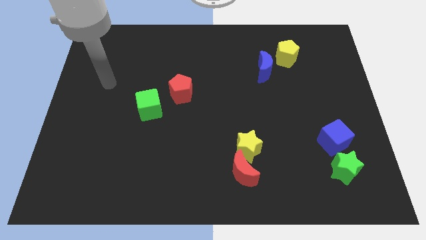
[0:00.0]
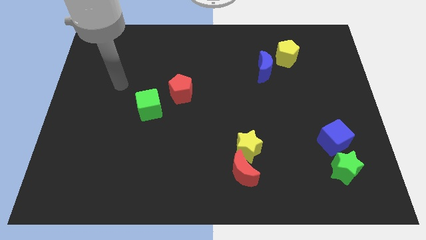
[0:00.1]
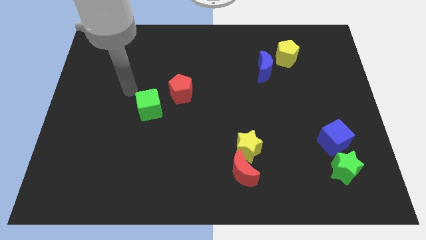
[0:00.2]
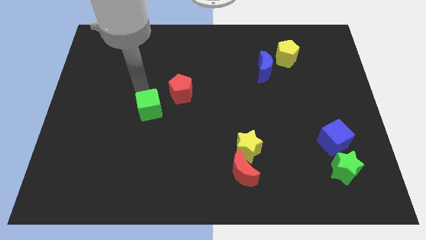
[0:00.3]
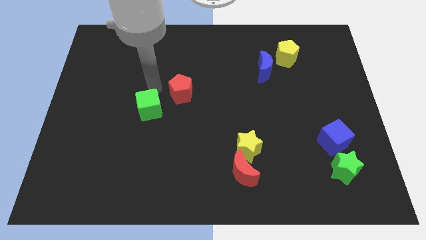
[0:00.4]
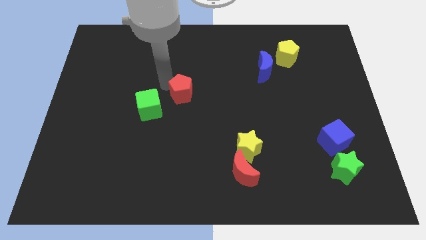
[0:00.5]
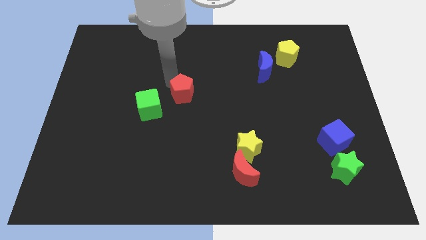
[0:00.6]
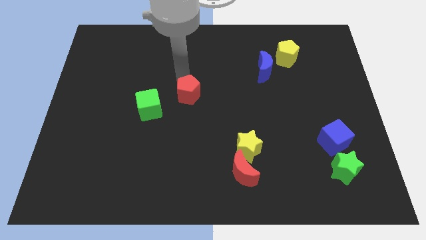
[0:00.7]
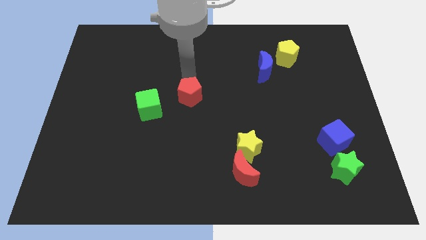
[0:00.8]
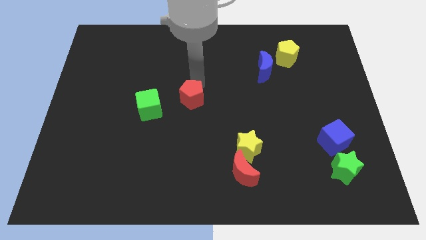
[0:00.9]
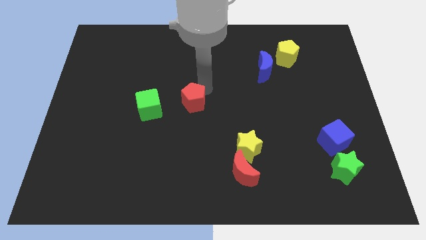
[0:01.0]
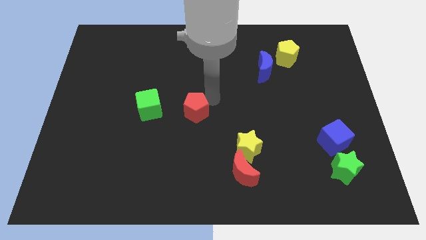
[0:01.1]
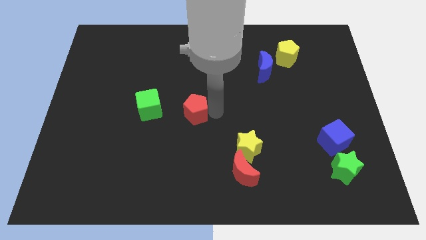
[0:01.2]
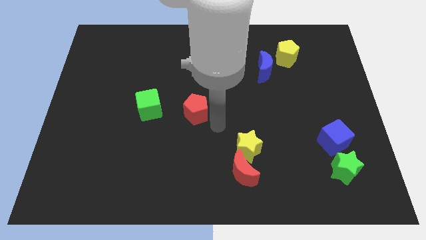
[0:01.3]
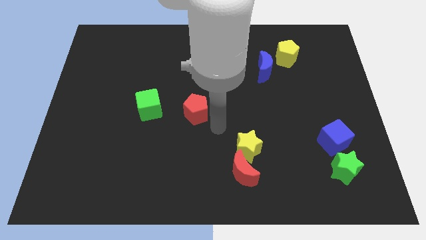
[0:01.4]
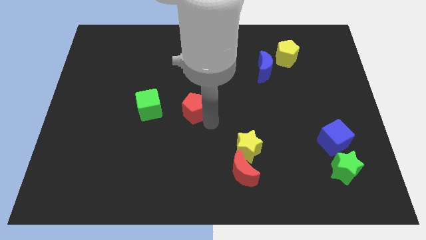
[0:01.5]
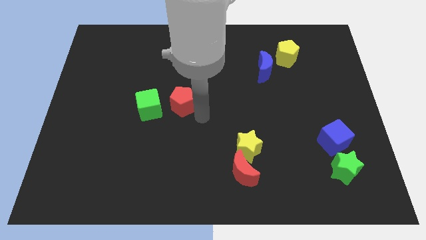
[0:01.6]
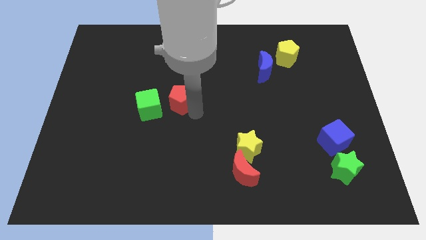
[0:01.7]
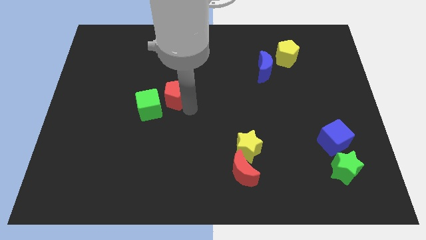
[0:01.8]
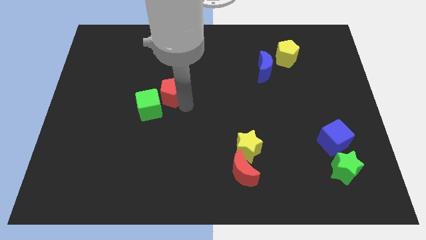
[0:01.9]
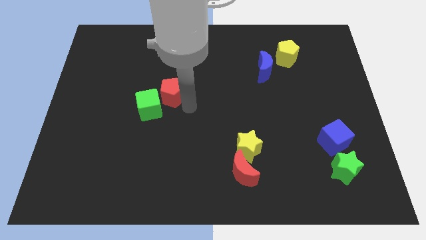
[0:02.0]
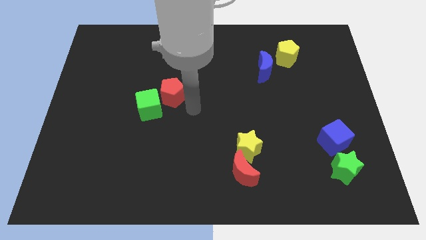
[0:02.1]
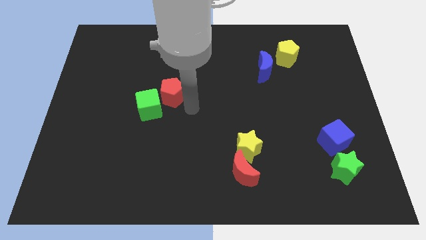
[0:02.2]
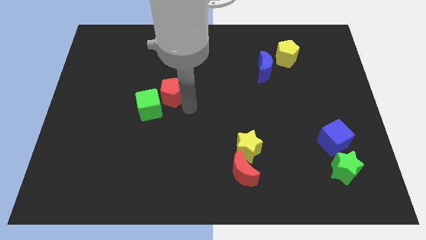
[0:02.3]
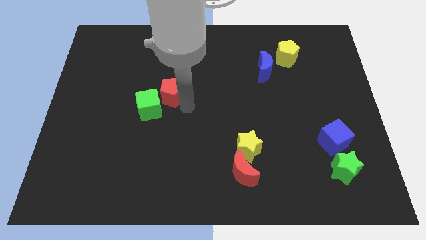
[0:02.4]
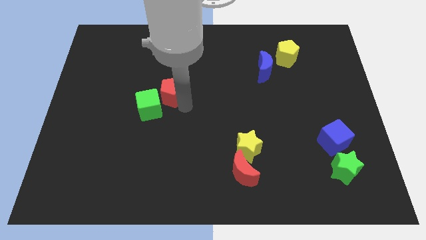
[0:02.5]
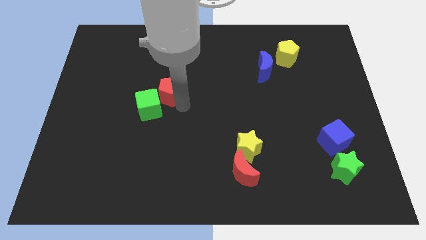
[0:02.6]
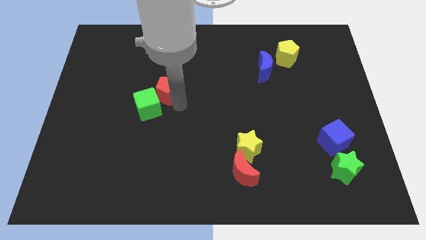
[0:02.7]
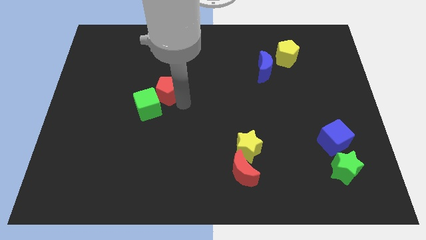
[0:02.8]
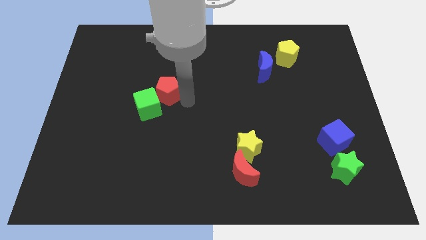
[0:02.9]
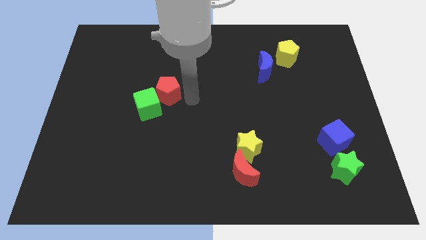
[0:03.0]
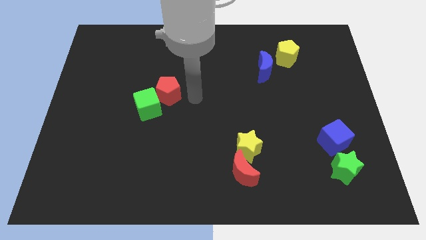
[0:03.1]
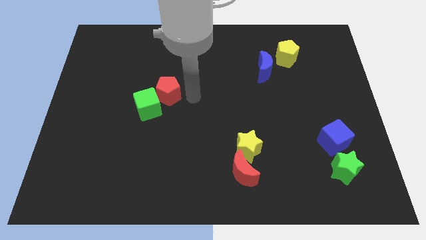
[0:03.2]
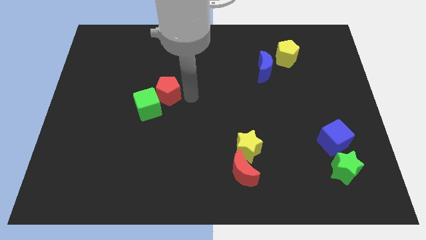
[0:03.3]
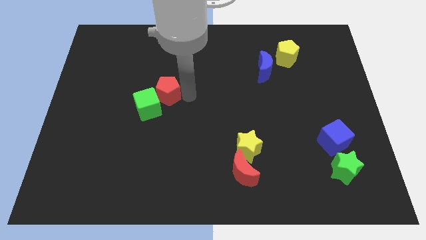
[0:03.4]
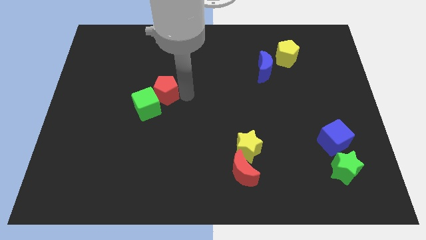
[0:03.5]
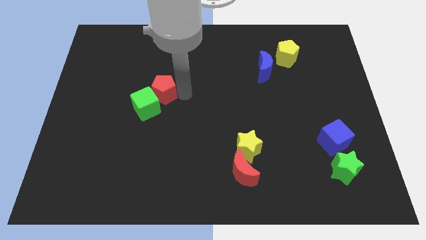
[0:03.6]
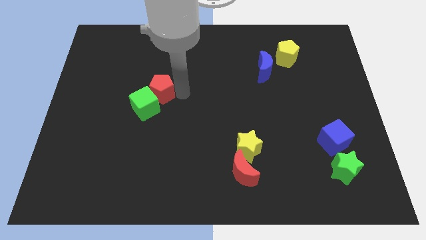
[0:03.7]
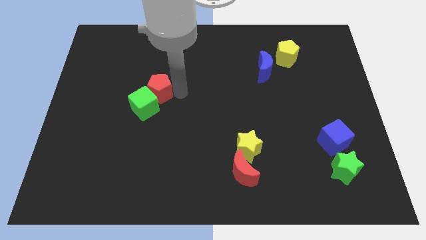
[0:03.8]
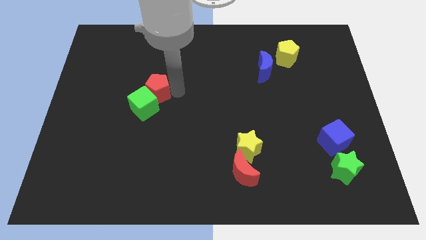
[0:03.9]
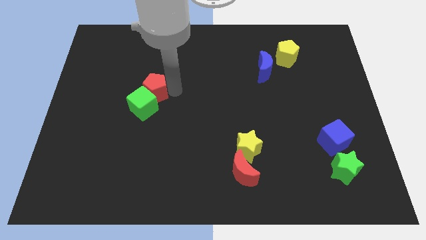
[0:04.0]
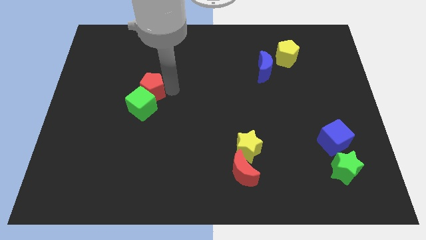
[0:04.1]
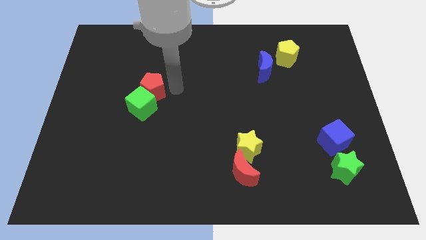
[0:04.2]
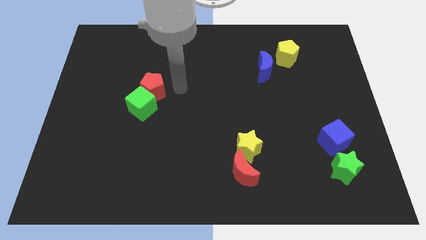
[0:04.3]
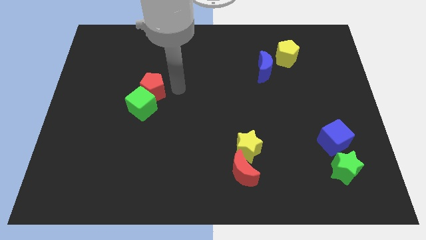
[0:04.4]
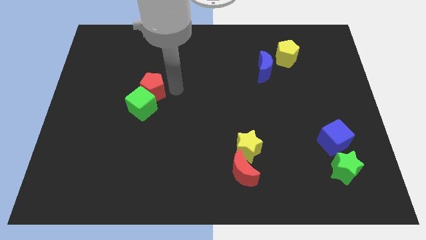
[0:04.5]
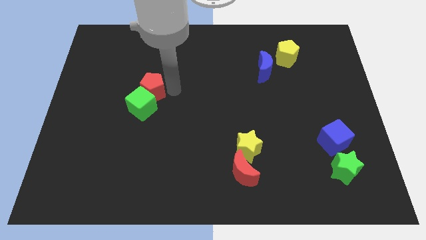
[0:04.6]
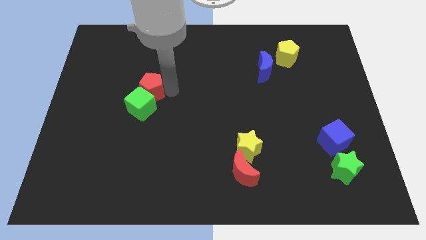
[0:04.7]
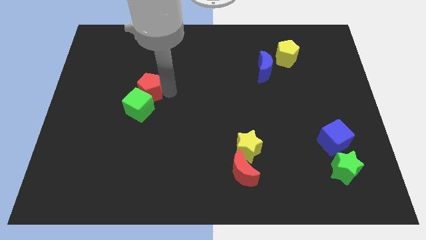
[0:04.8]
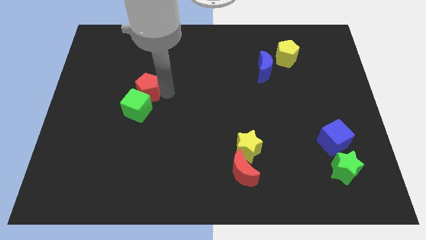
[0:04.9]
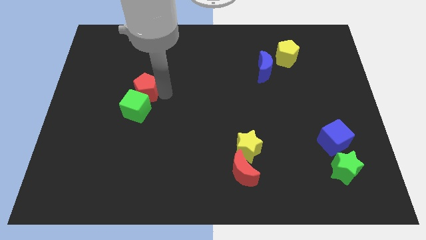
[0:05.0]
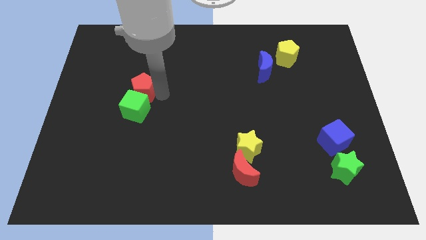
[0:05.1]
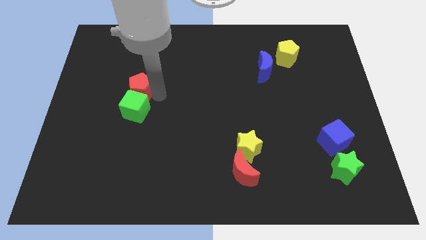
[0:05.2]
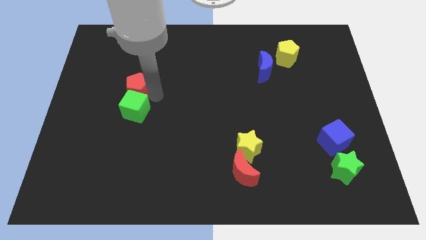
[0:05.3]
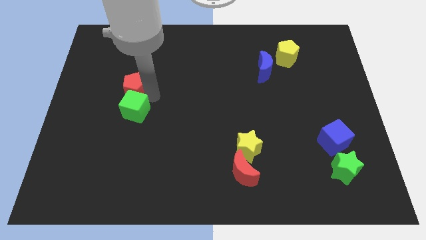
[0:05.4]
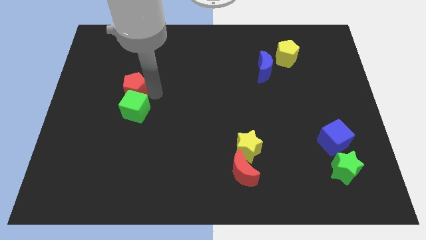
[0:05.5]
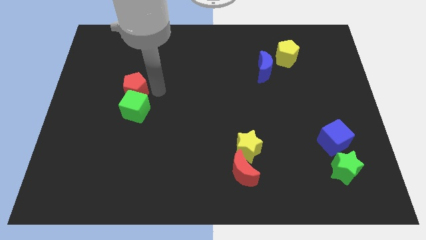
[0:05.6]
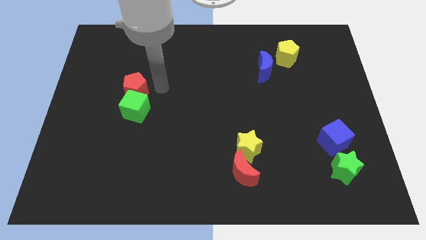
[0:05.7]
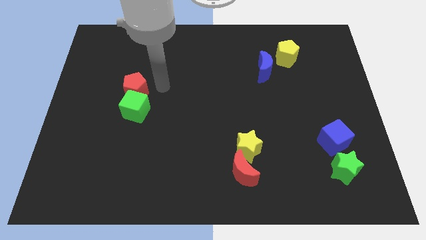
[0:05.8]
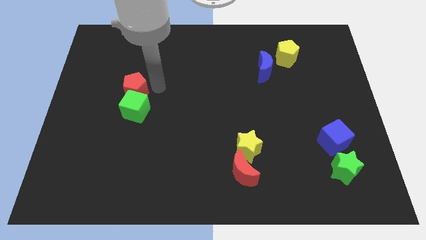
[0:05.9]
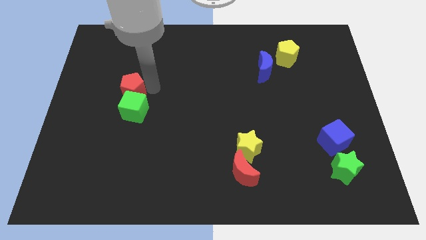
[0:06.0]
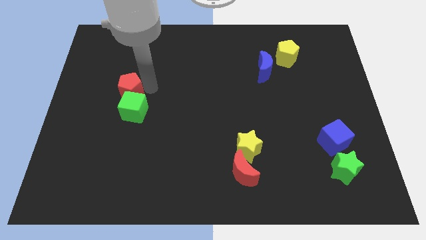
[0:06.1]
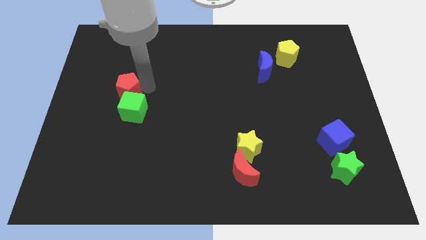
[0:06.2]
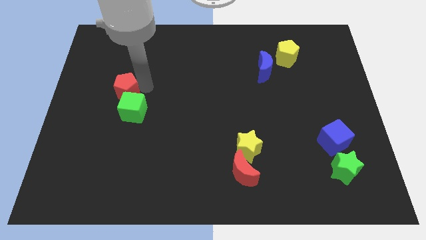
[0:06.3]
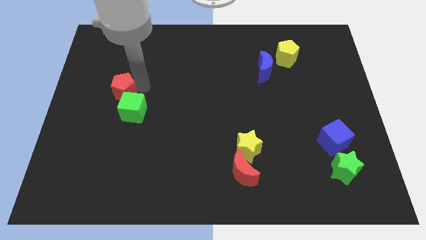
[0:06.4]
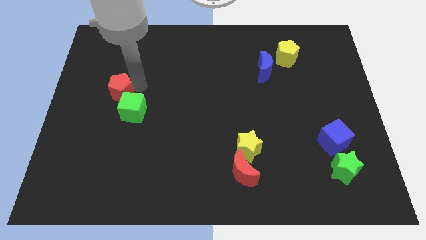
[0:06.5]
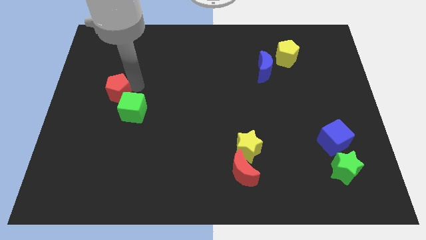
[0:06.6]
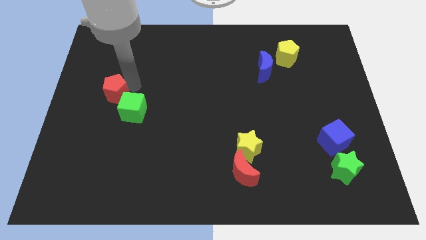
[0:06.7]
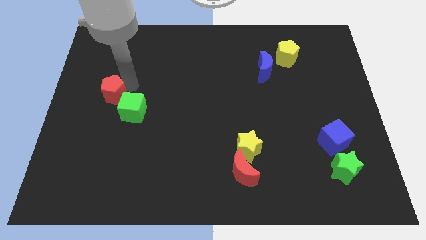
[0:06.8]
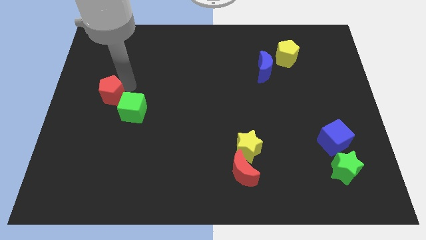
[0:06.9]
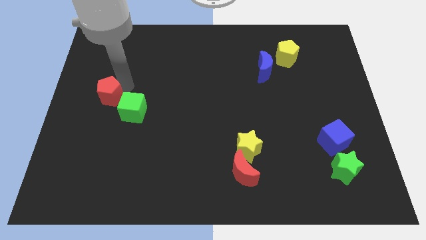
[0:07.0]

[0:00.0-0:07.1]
put the red pentagon to the center left
